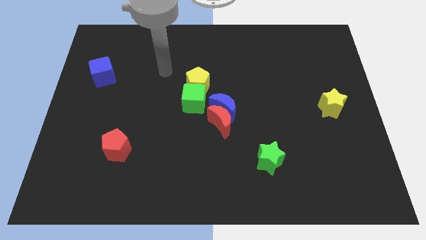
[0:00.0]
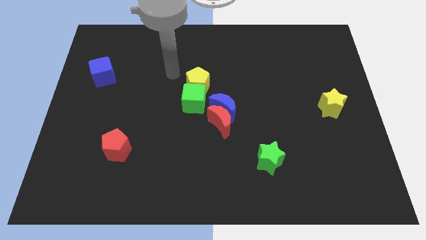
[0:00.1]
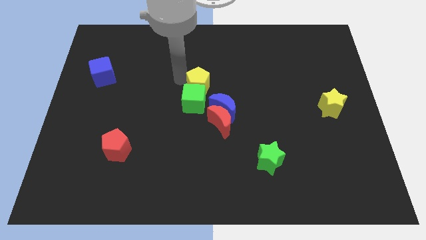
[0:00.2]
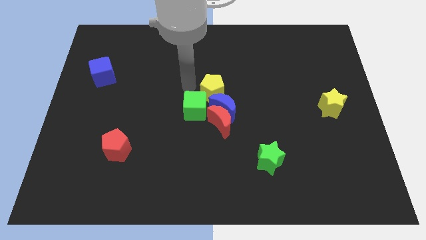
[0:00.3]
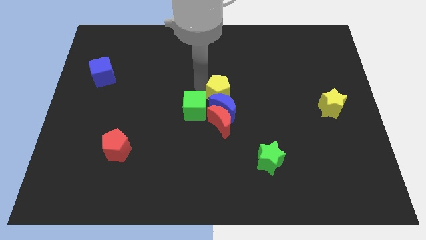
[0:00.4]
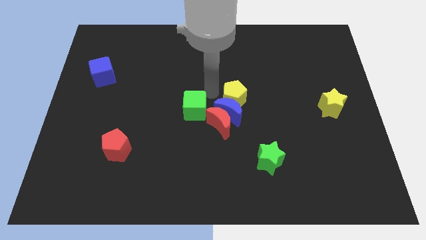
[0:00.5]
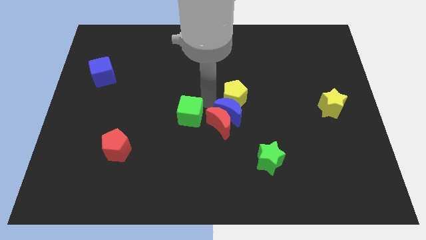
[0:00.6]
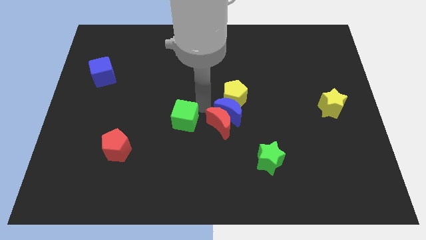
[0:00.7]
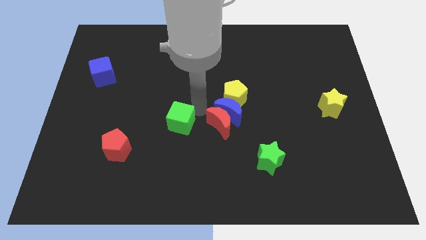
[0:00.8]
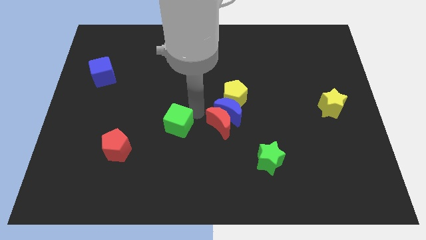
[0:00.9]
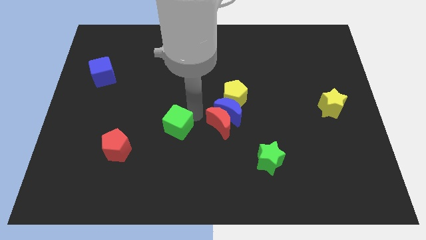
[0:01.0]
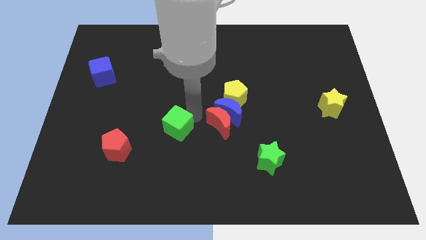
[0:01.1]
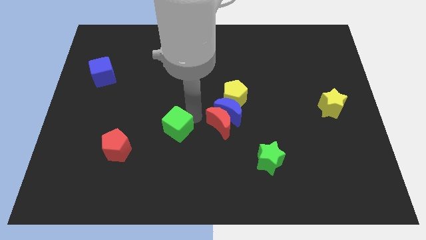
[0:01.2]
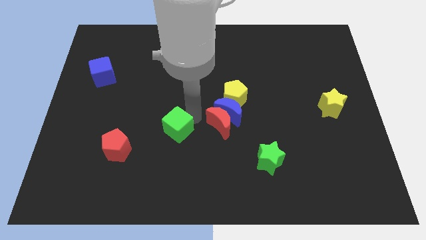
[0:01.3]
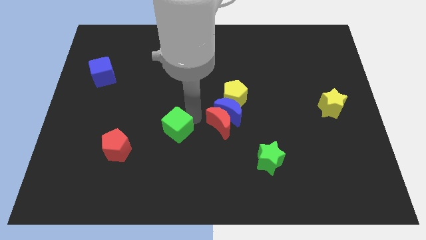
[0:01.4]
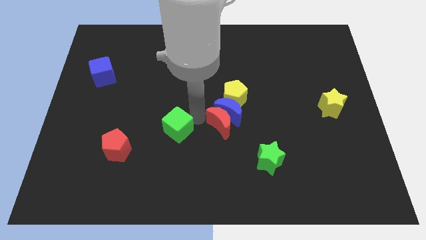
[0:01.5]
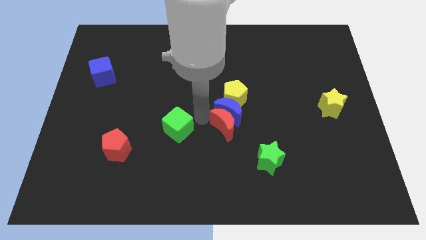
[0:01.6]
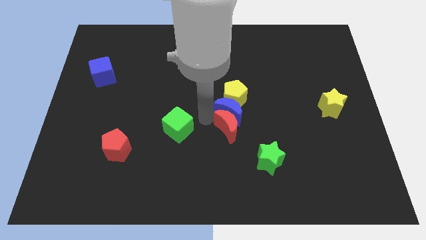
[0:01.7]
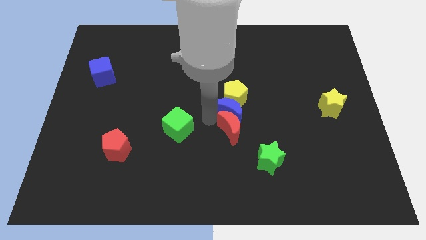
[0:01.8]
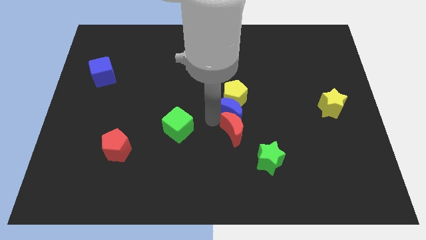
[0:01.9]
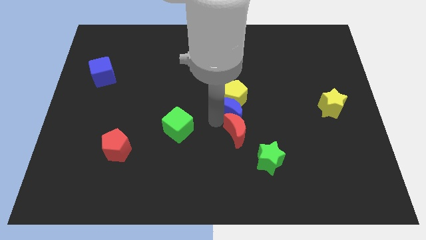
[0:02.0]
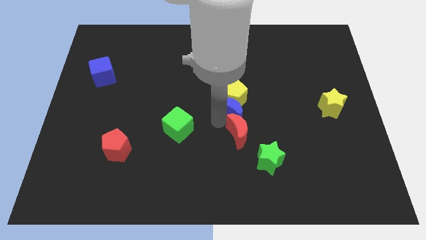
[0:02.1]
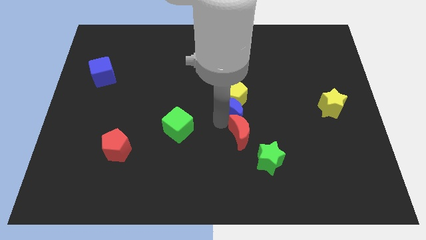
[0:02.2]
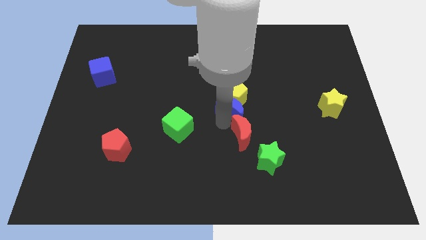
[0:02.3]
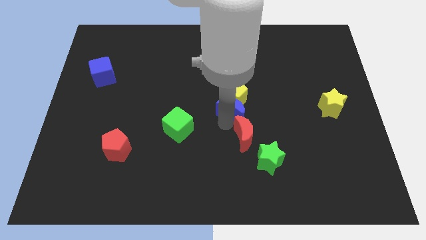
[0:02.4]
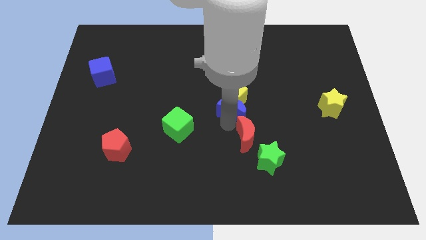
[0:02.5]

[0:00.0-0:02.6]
separate the red moon from the blue moon and green cube

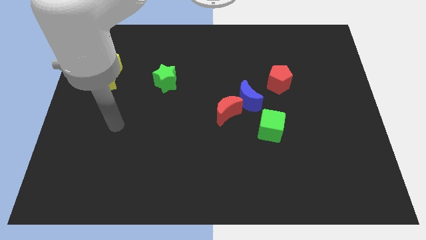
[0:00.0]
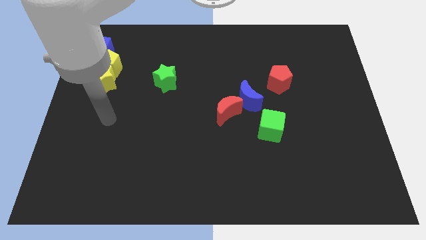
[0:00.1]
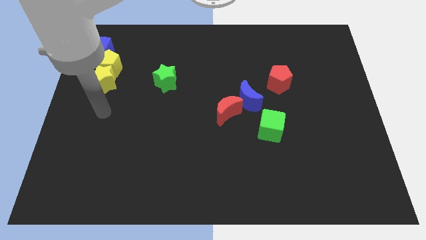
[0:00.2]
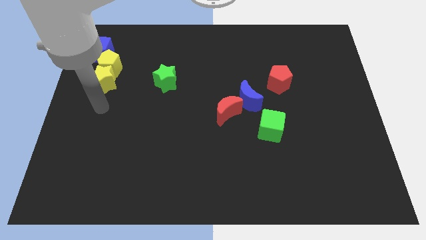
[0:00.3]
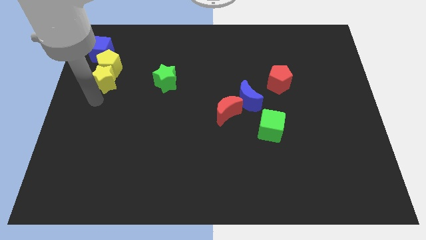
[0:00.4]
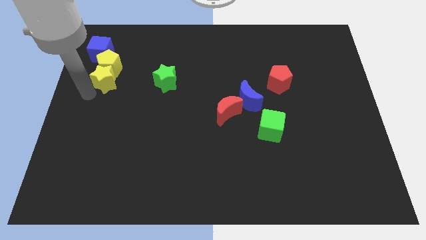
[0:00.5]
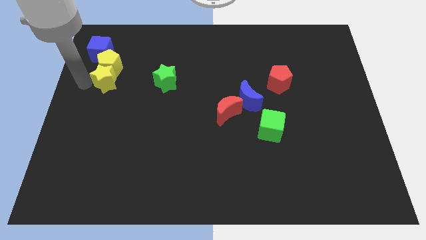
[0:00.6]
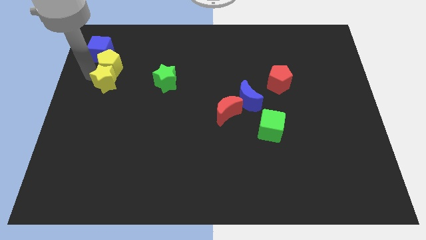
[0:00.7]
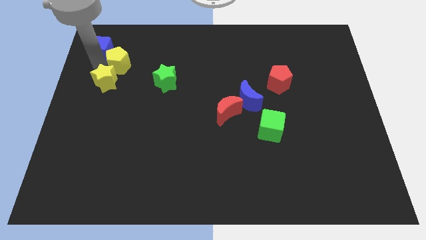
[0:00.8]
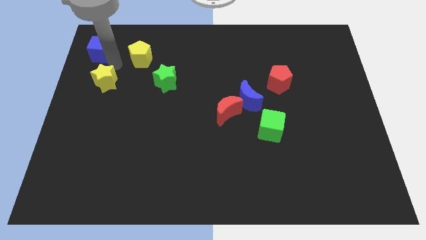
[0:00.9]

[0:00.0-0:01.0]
pull the yellow star apart from the yellow pentagon

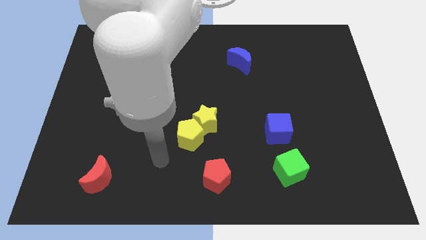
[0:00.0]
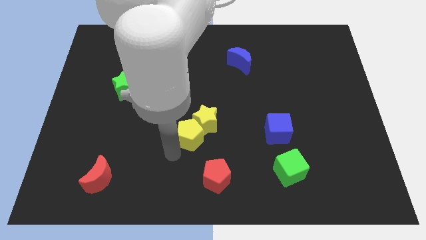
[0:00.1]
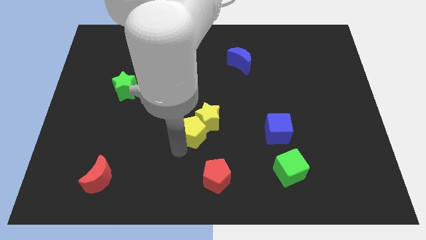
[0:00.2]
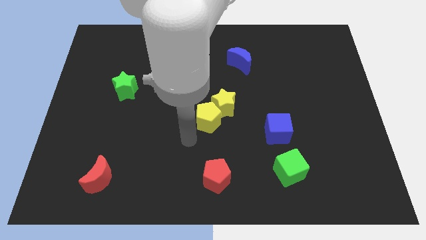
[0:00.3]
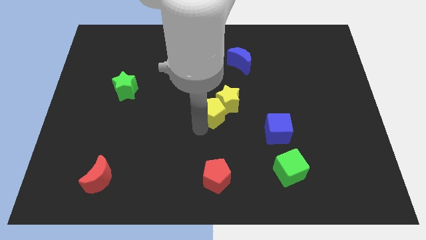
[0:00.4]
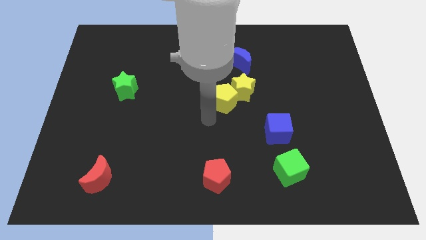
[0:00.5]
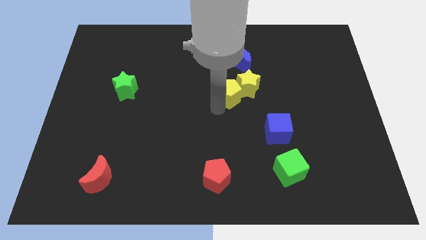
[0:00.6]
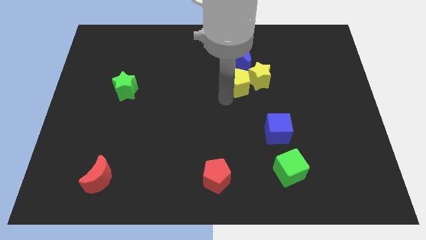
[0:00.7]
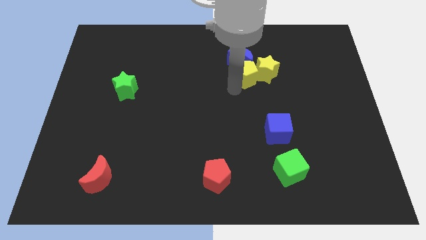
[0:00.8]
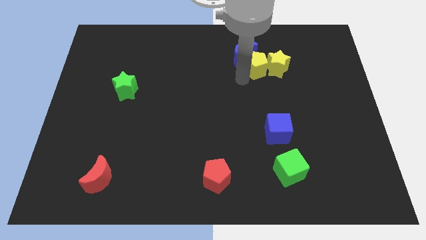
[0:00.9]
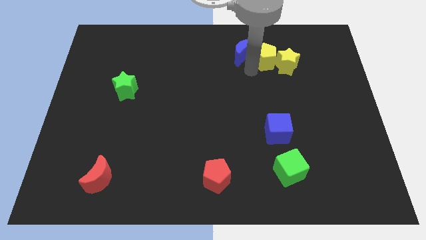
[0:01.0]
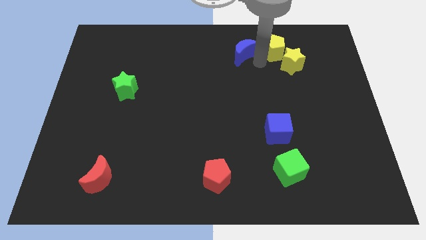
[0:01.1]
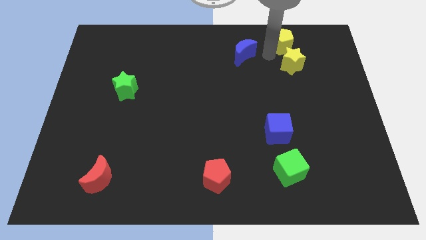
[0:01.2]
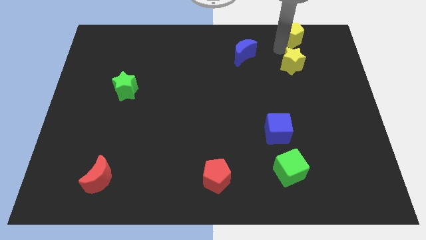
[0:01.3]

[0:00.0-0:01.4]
separate the yellow star from the yellow pentagon

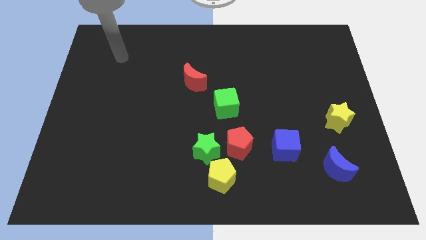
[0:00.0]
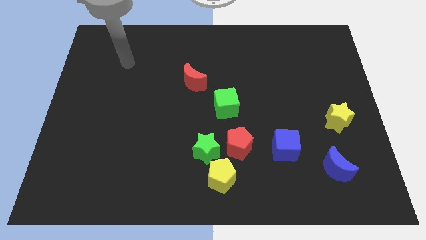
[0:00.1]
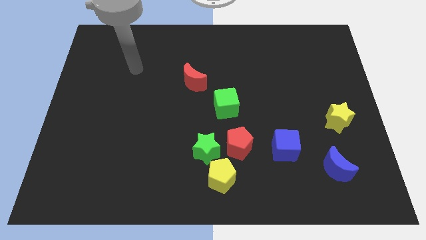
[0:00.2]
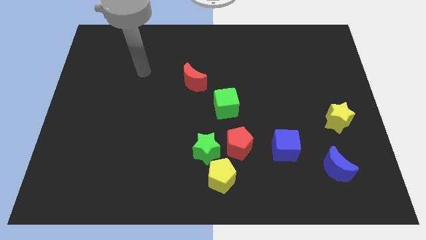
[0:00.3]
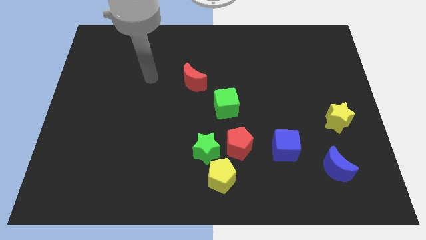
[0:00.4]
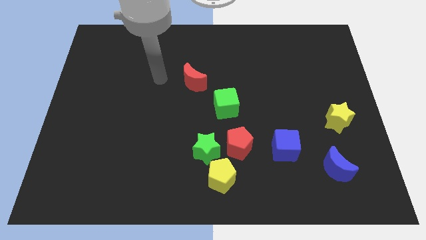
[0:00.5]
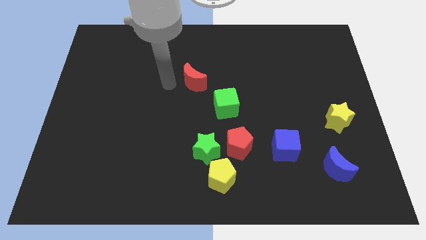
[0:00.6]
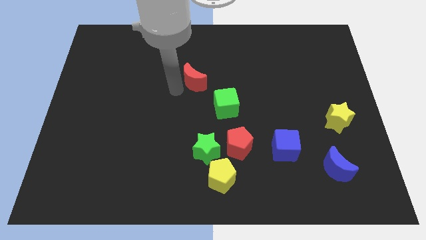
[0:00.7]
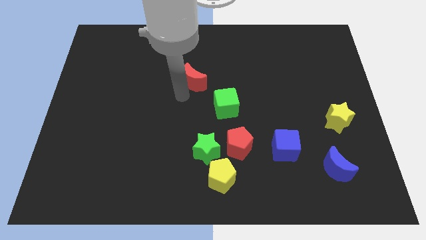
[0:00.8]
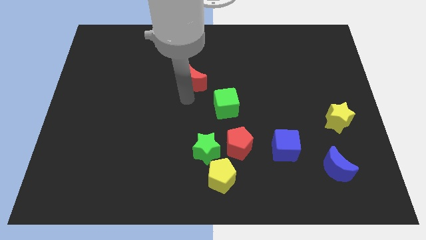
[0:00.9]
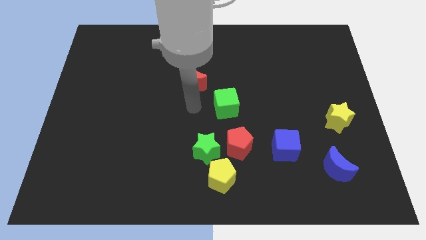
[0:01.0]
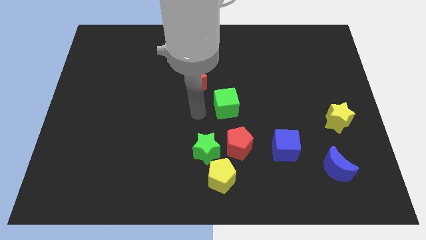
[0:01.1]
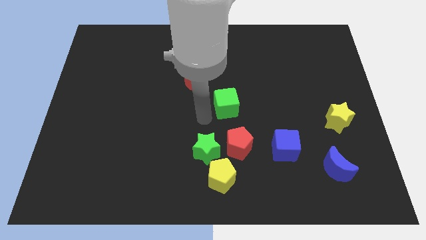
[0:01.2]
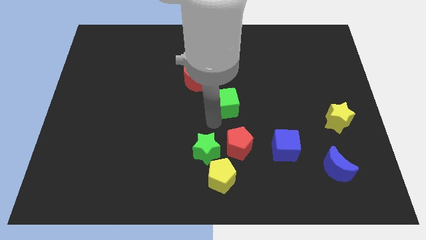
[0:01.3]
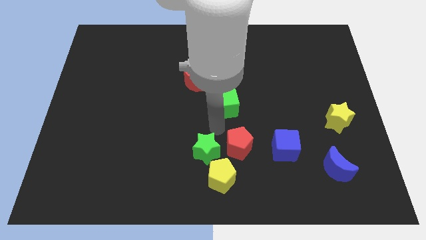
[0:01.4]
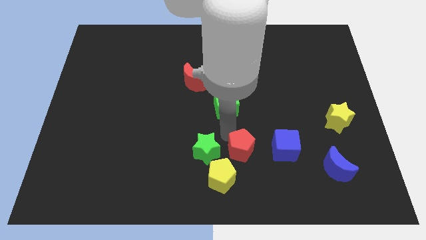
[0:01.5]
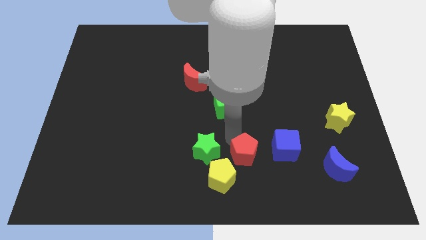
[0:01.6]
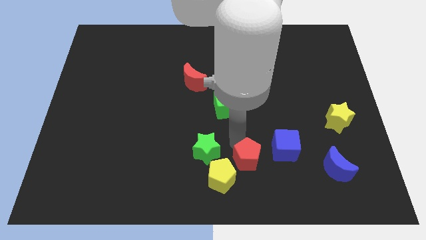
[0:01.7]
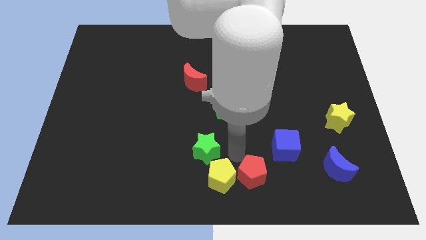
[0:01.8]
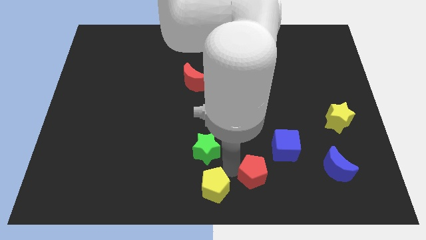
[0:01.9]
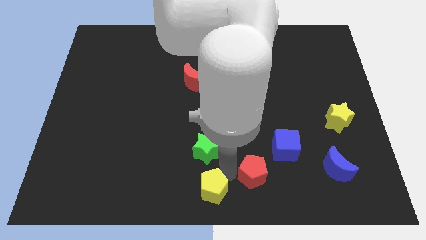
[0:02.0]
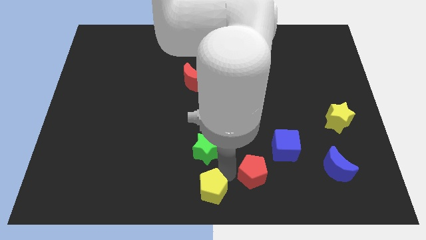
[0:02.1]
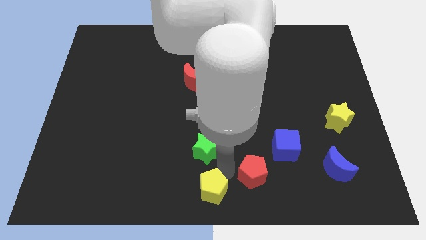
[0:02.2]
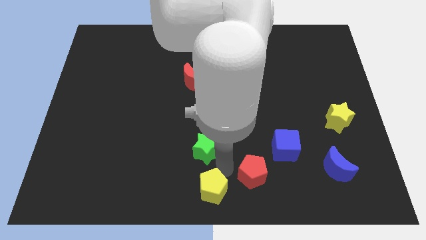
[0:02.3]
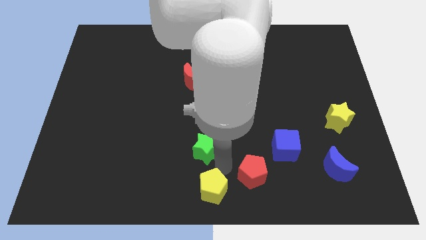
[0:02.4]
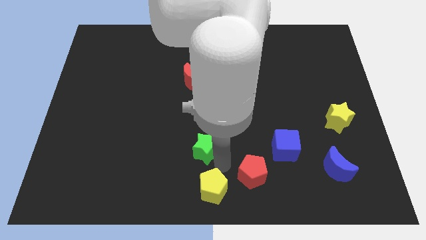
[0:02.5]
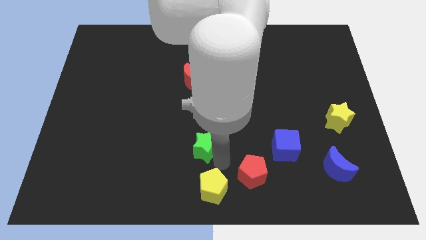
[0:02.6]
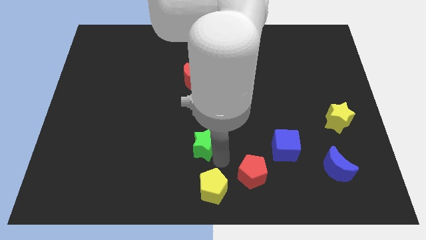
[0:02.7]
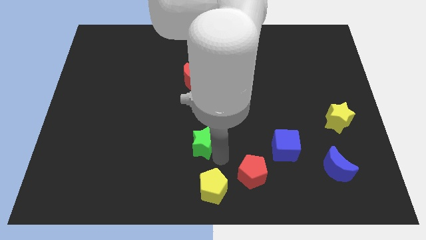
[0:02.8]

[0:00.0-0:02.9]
separate the green star from the yellow pentagon and red pentagon

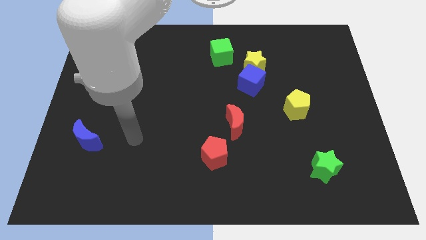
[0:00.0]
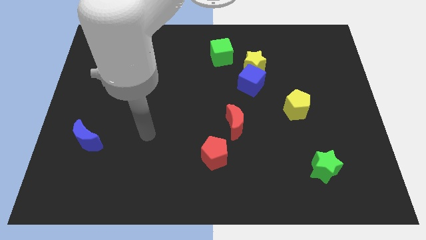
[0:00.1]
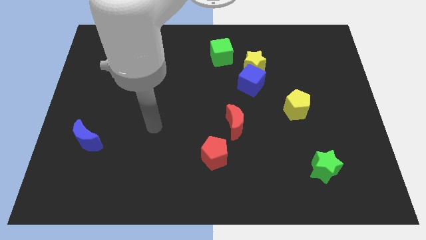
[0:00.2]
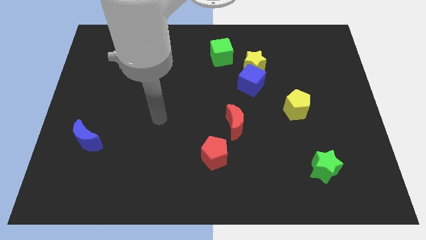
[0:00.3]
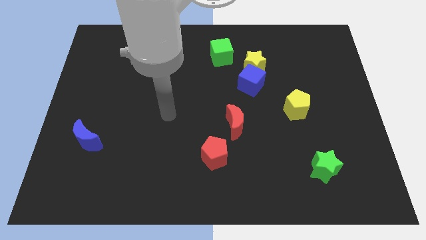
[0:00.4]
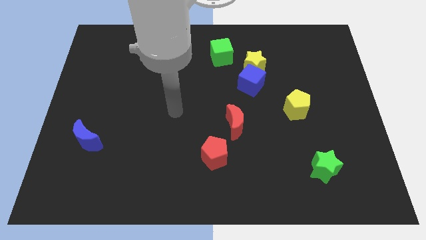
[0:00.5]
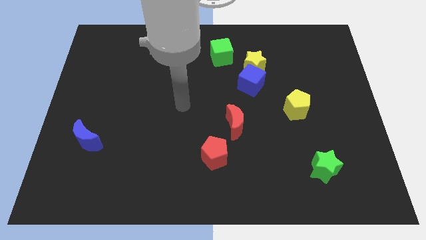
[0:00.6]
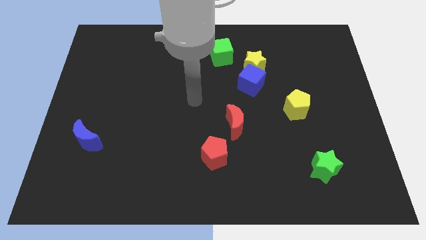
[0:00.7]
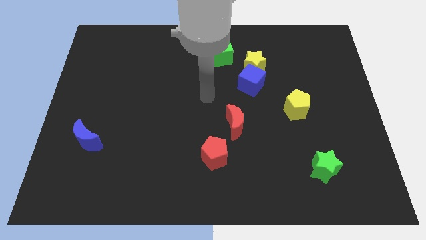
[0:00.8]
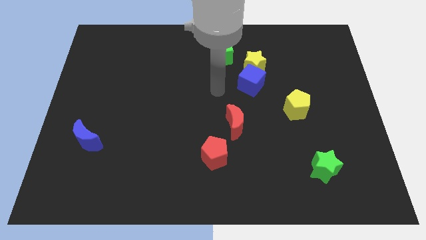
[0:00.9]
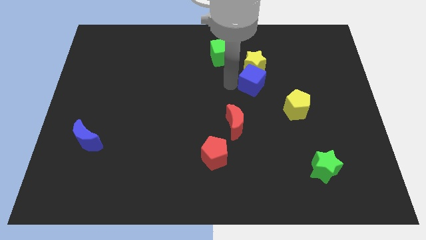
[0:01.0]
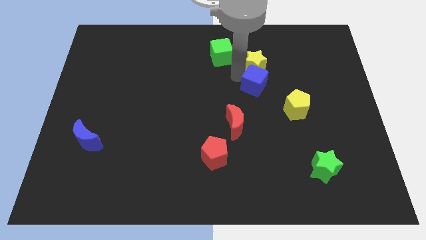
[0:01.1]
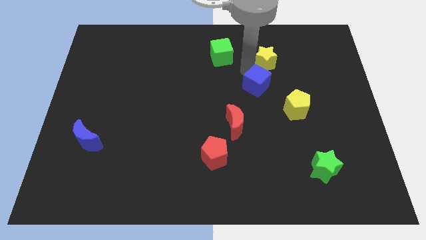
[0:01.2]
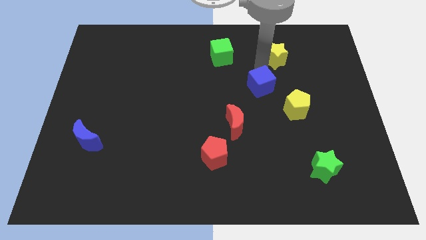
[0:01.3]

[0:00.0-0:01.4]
pull the blue cube apart from the yellow star
